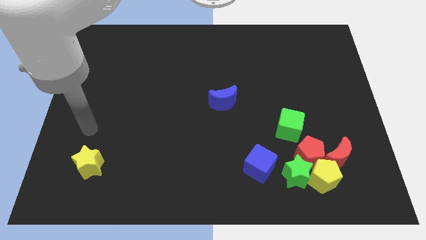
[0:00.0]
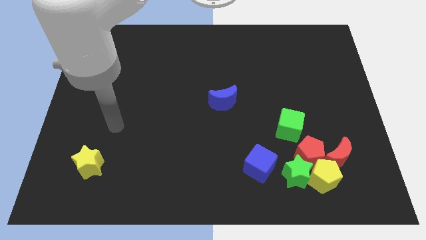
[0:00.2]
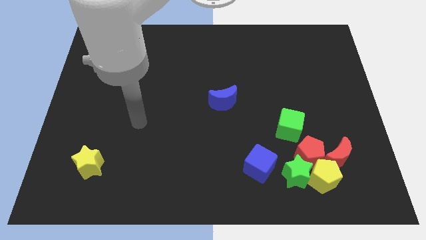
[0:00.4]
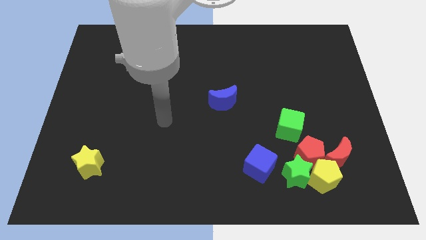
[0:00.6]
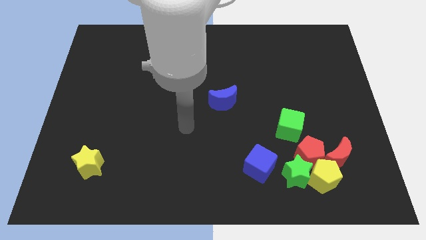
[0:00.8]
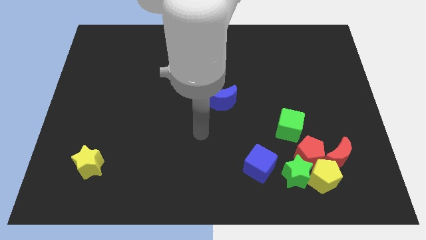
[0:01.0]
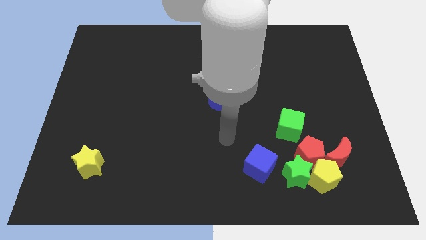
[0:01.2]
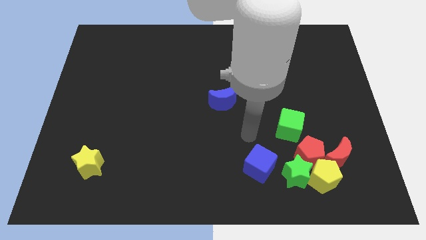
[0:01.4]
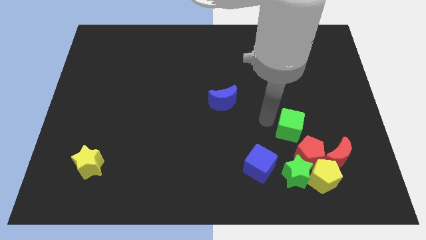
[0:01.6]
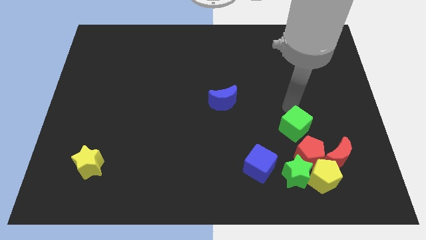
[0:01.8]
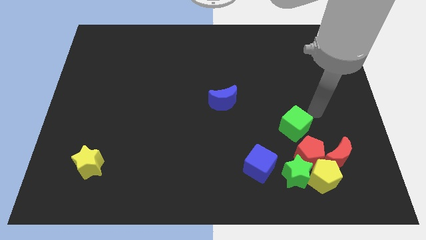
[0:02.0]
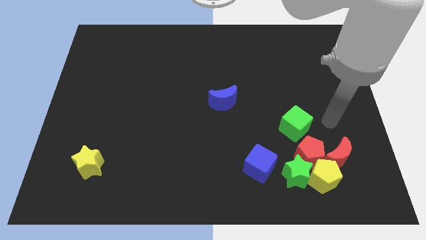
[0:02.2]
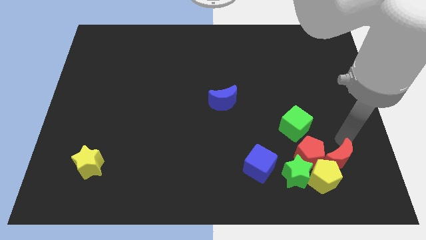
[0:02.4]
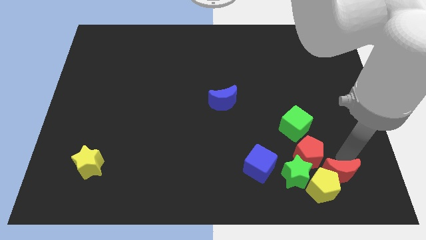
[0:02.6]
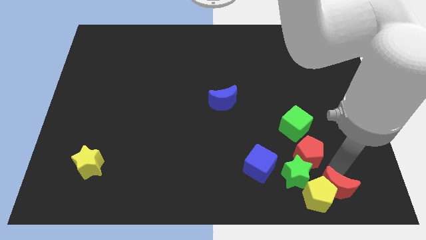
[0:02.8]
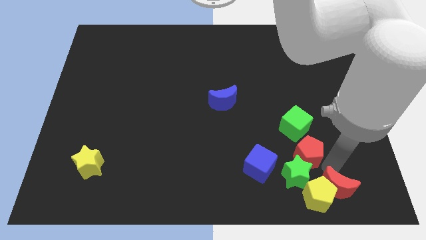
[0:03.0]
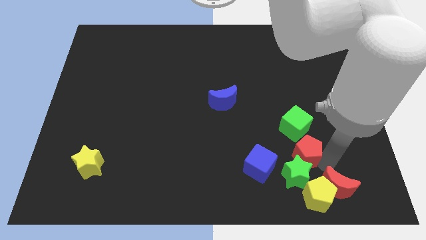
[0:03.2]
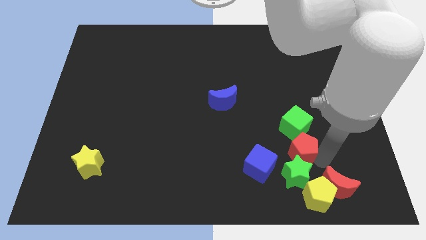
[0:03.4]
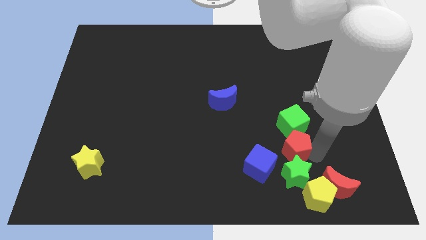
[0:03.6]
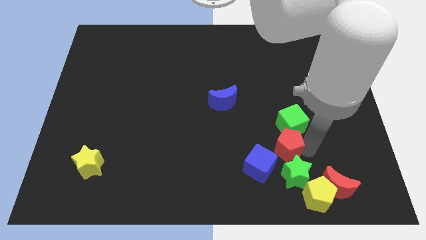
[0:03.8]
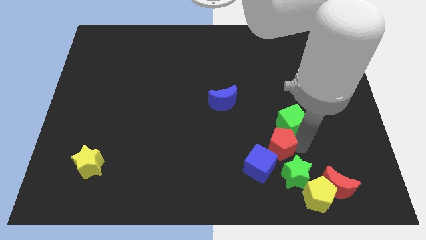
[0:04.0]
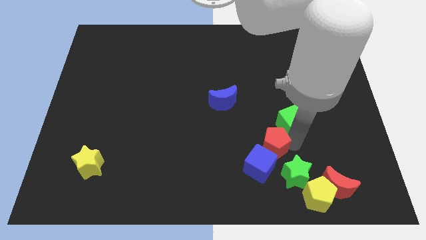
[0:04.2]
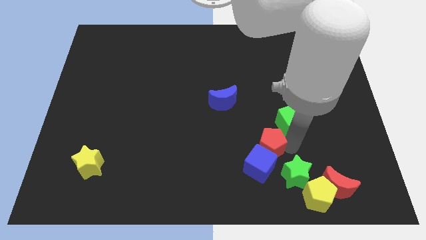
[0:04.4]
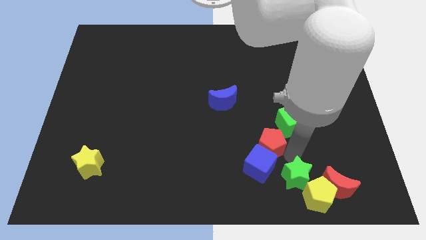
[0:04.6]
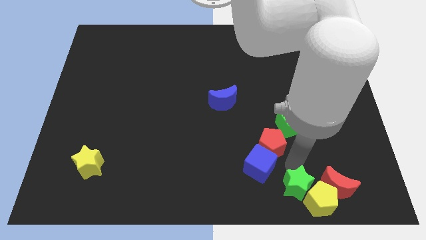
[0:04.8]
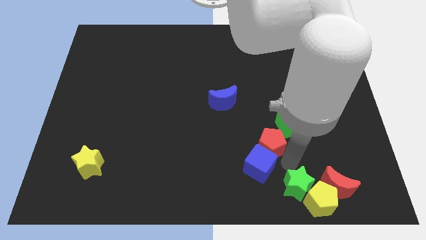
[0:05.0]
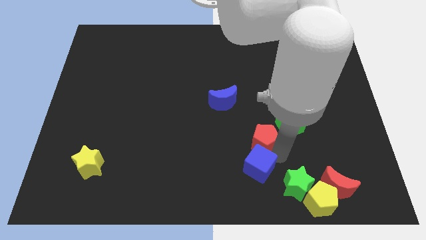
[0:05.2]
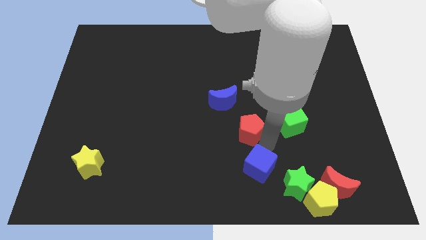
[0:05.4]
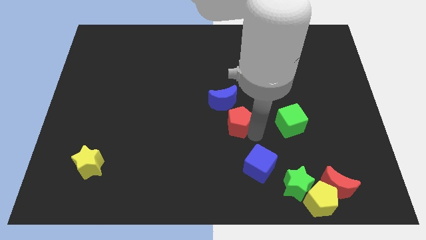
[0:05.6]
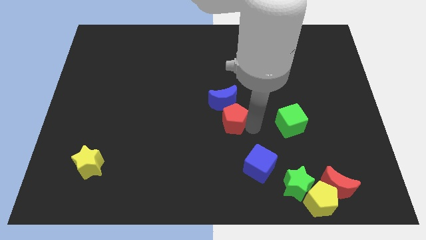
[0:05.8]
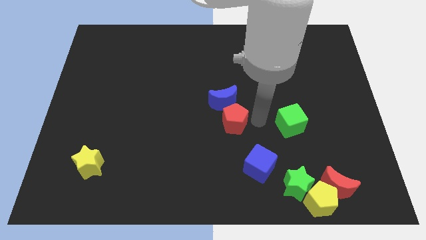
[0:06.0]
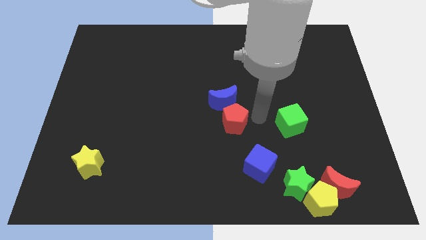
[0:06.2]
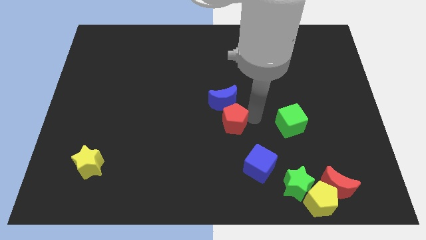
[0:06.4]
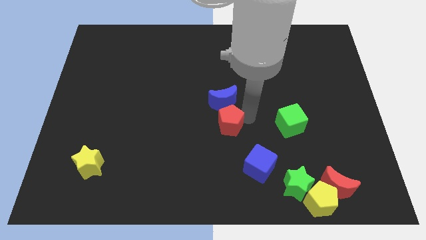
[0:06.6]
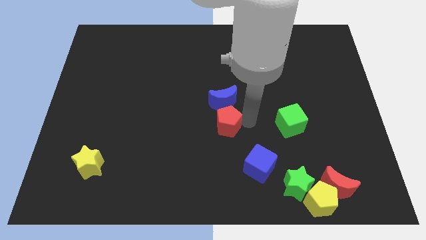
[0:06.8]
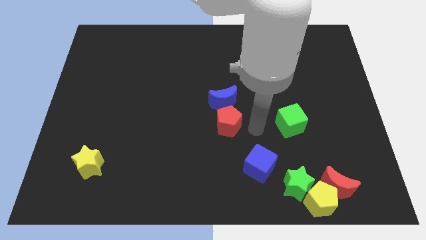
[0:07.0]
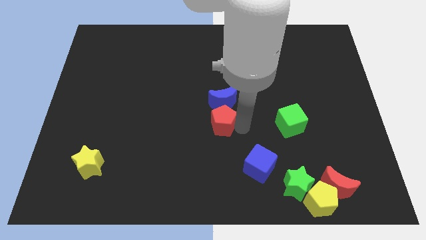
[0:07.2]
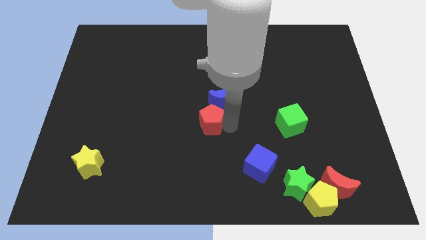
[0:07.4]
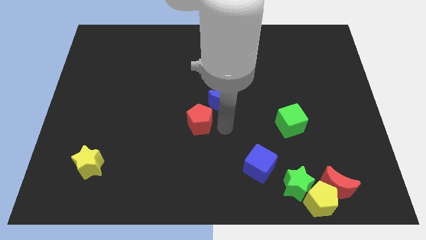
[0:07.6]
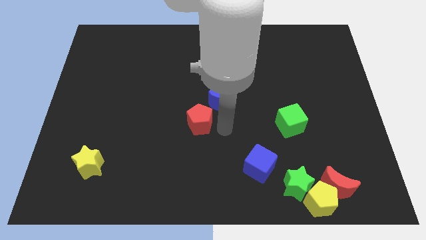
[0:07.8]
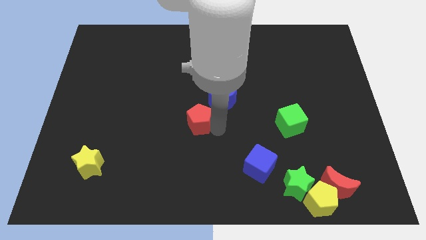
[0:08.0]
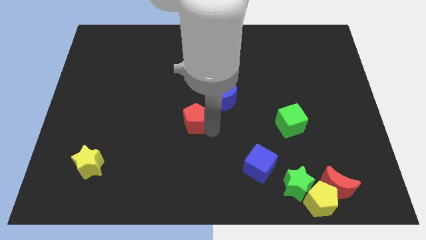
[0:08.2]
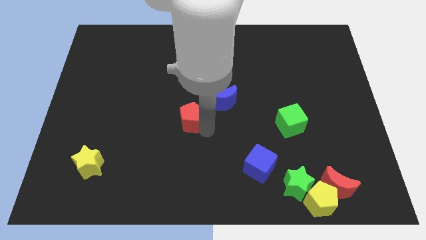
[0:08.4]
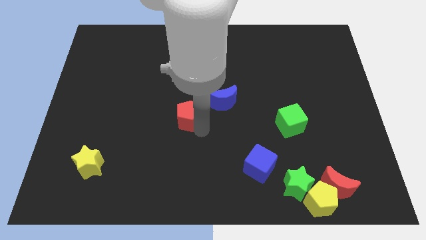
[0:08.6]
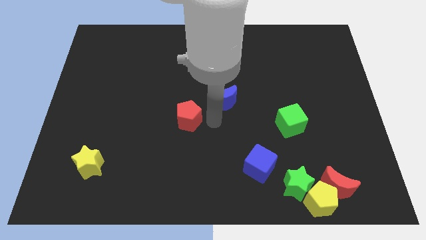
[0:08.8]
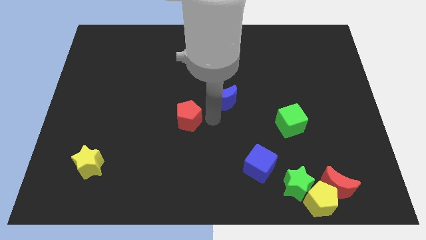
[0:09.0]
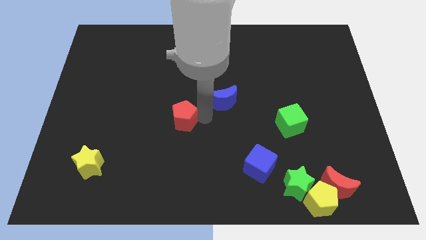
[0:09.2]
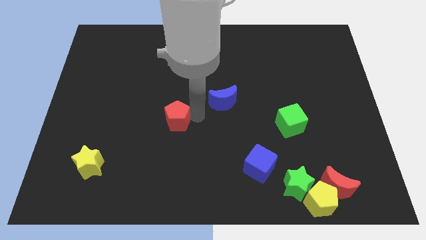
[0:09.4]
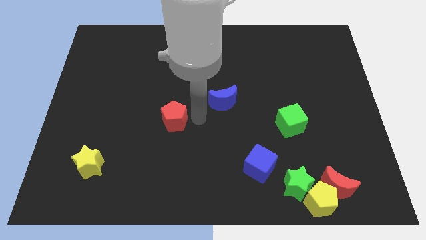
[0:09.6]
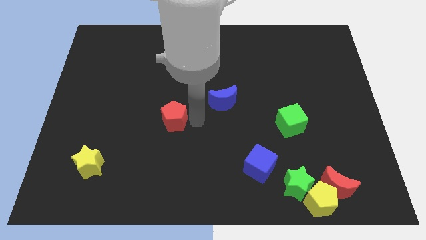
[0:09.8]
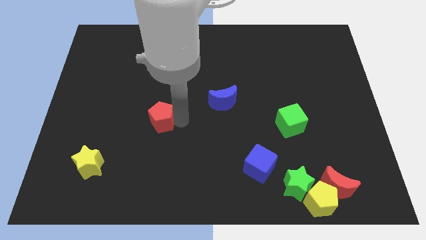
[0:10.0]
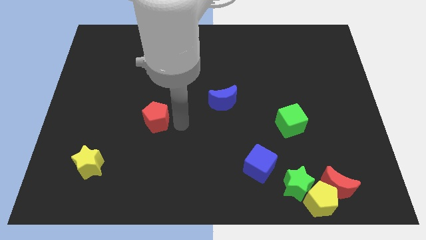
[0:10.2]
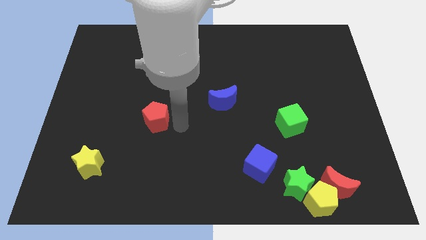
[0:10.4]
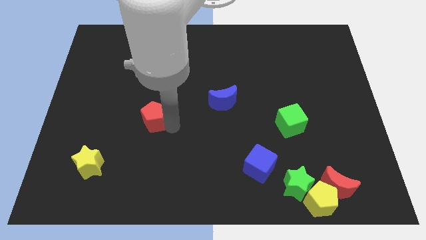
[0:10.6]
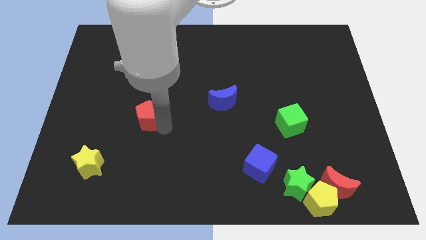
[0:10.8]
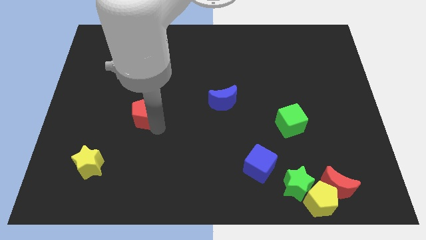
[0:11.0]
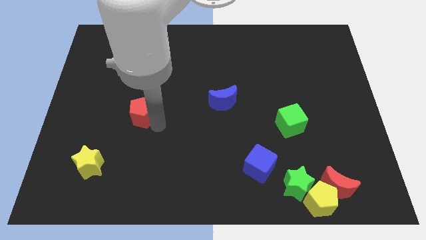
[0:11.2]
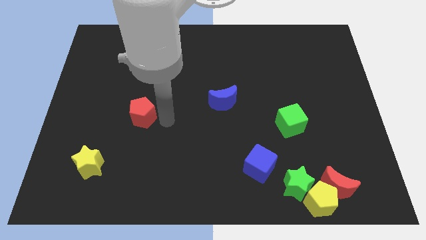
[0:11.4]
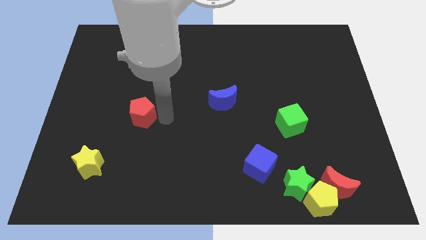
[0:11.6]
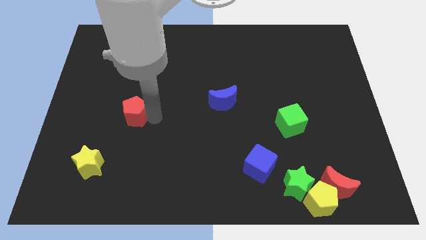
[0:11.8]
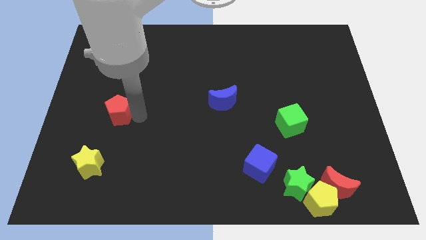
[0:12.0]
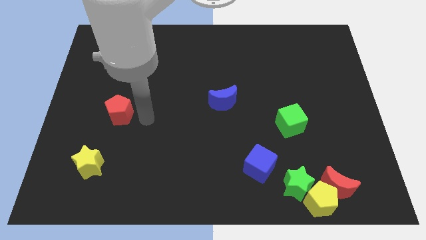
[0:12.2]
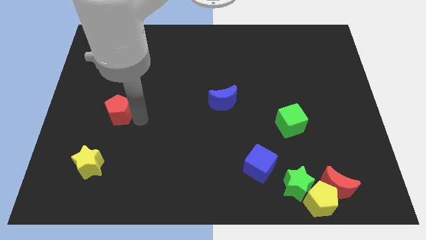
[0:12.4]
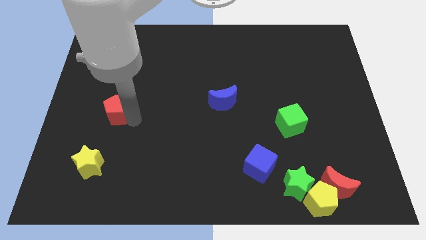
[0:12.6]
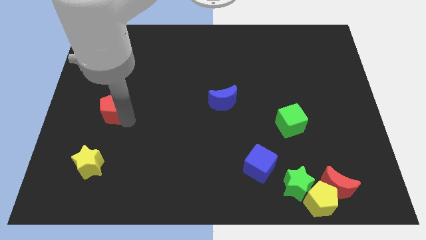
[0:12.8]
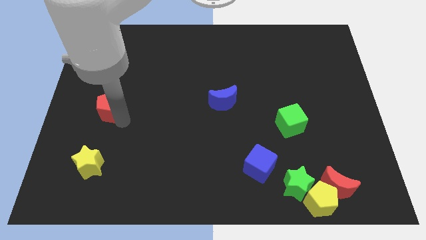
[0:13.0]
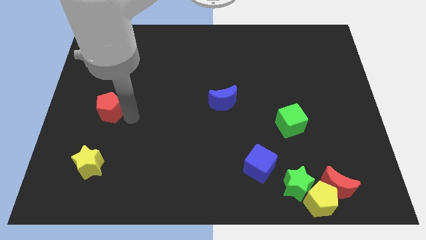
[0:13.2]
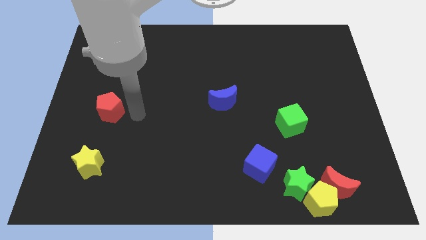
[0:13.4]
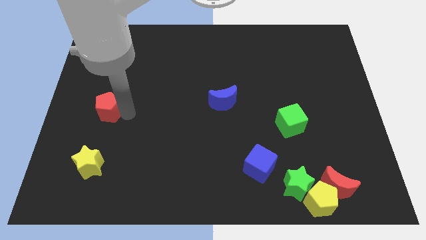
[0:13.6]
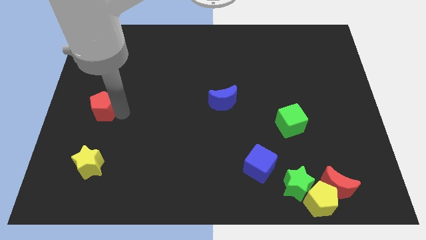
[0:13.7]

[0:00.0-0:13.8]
put the red pentagon to the left side of the board

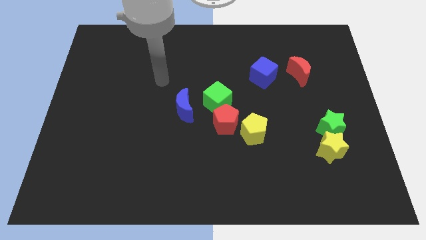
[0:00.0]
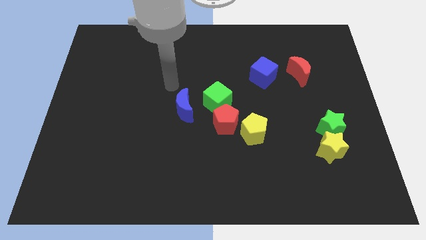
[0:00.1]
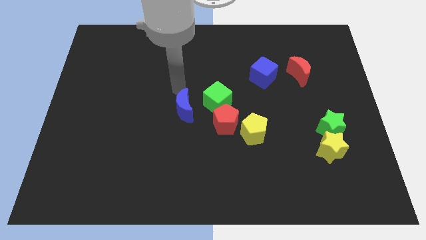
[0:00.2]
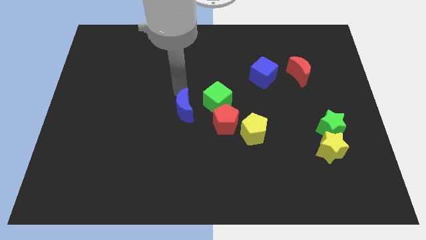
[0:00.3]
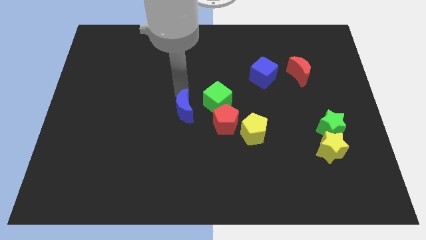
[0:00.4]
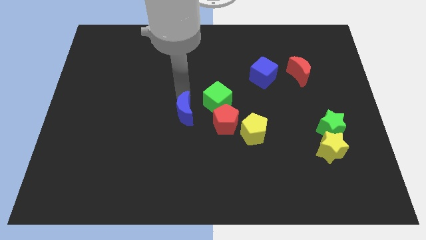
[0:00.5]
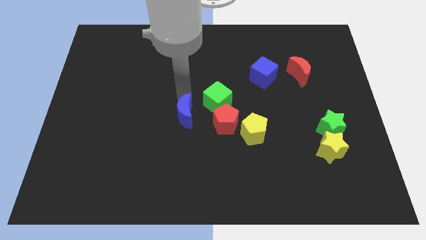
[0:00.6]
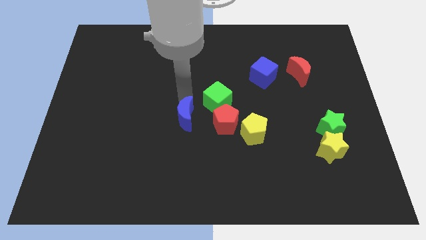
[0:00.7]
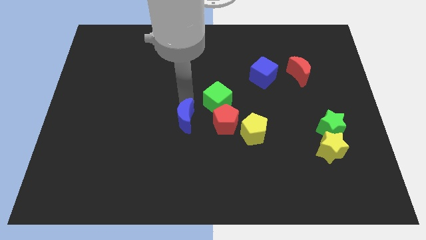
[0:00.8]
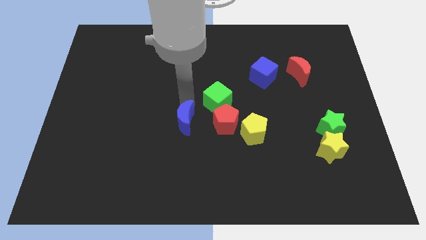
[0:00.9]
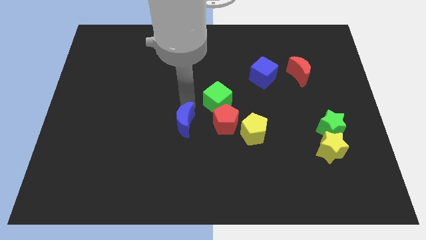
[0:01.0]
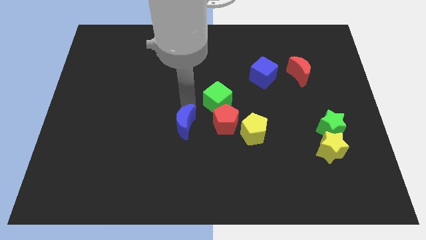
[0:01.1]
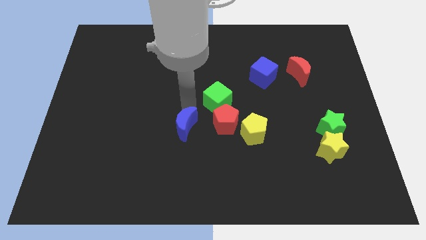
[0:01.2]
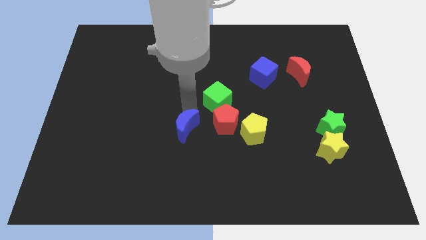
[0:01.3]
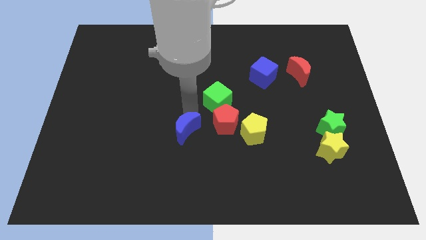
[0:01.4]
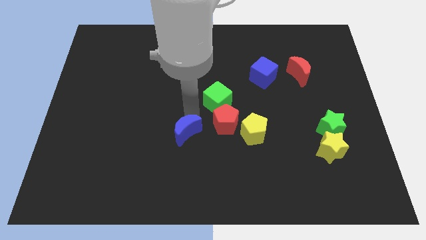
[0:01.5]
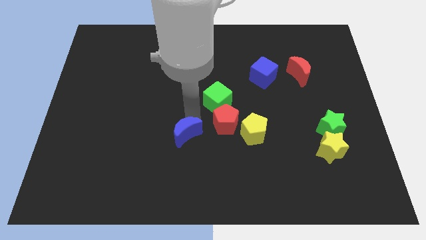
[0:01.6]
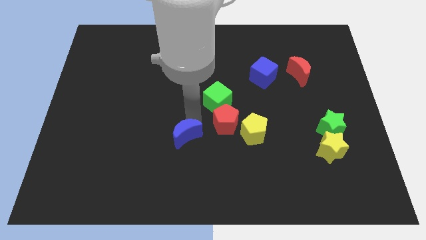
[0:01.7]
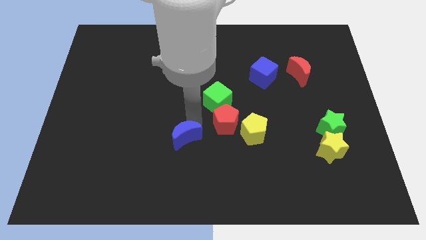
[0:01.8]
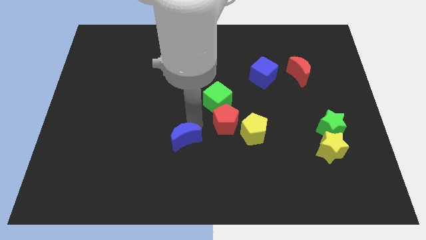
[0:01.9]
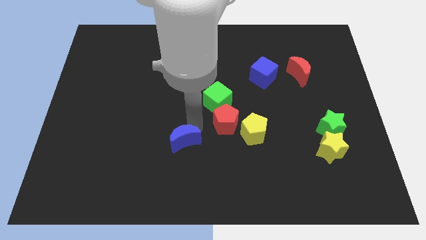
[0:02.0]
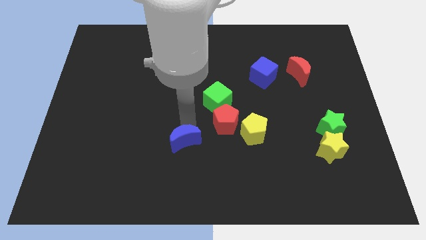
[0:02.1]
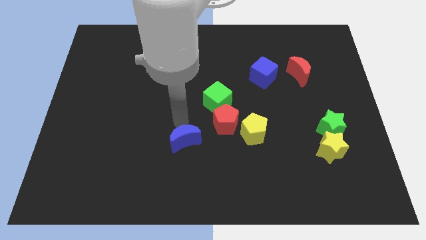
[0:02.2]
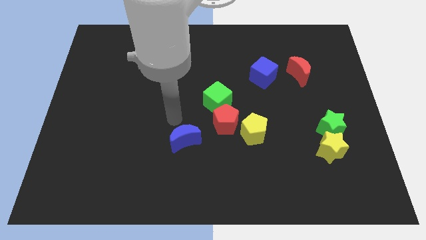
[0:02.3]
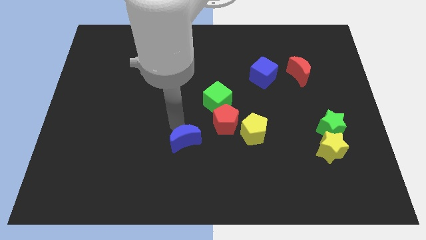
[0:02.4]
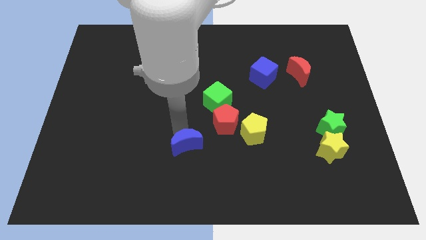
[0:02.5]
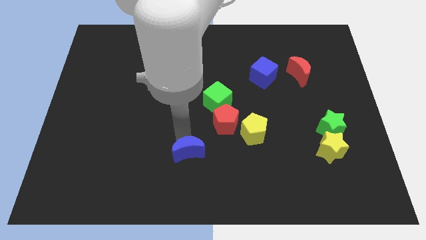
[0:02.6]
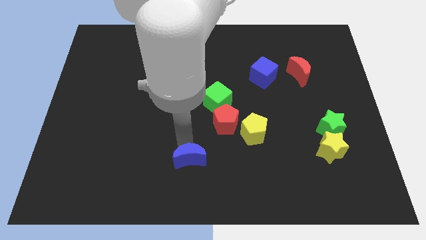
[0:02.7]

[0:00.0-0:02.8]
move the blue moon to the bottom side
